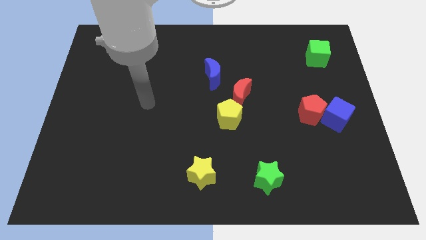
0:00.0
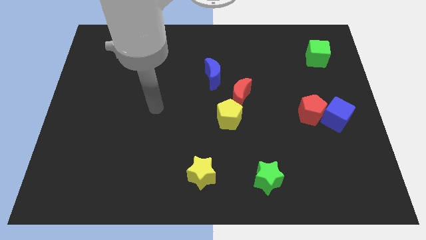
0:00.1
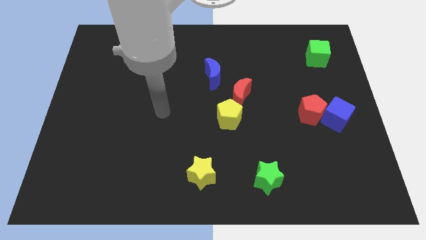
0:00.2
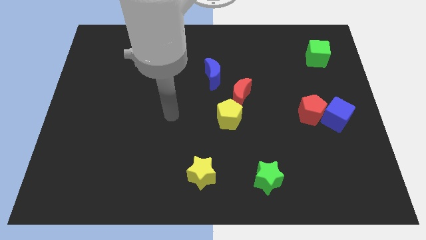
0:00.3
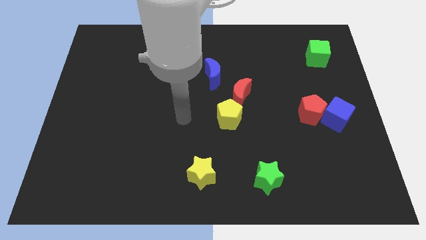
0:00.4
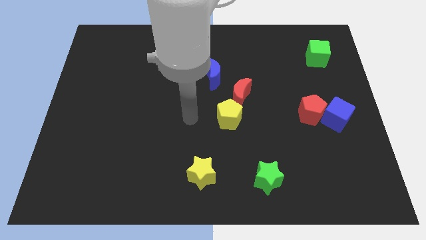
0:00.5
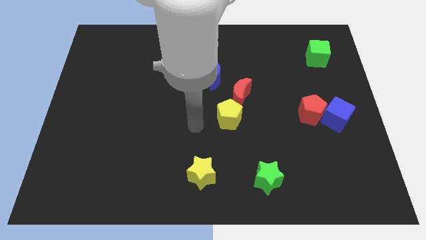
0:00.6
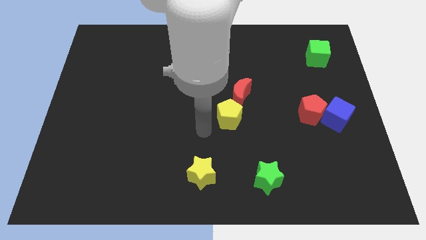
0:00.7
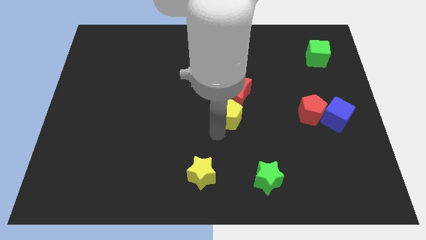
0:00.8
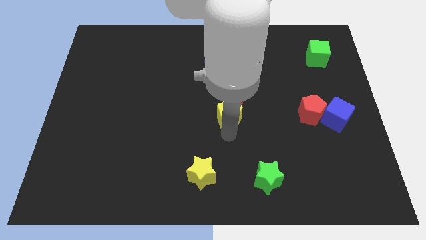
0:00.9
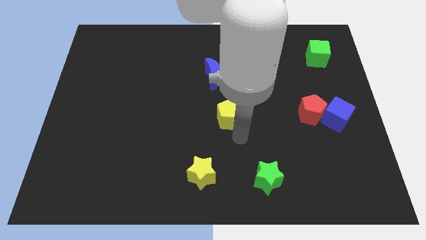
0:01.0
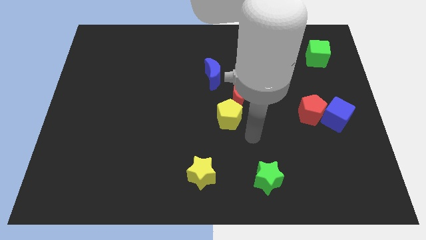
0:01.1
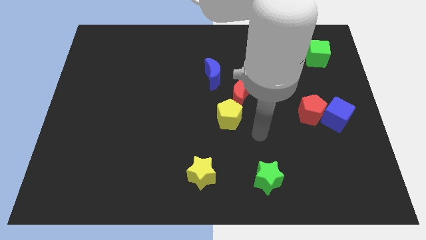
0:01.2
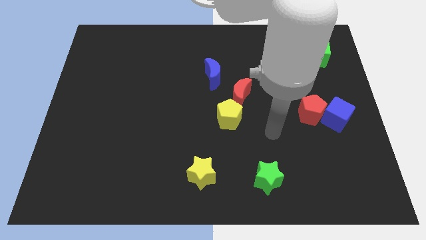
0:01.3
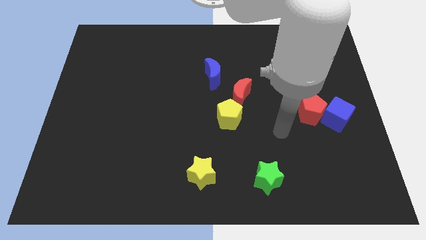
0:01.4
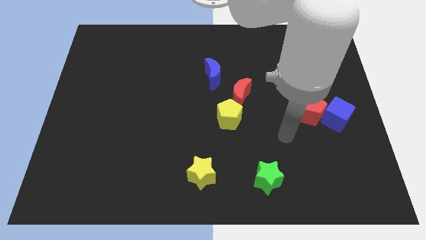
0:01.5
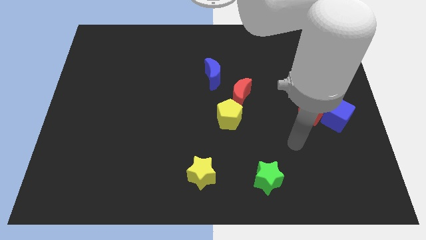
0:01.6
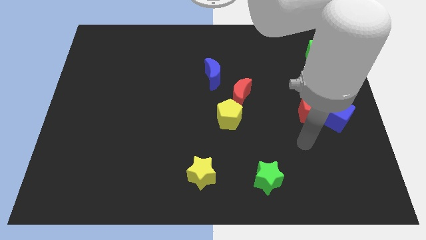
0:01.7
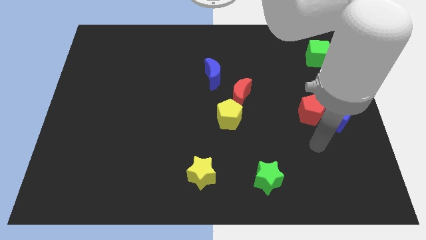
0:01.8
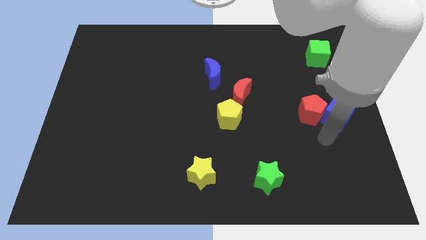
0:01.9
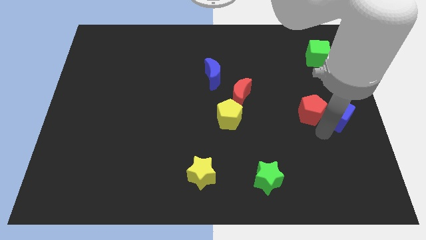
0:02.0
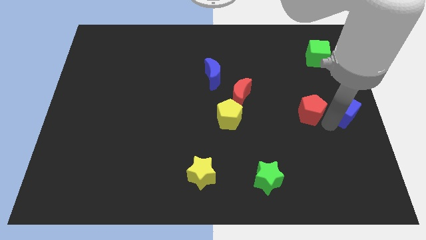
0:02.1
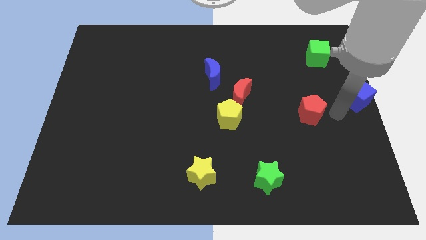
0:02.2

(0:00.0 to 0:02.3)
move the red pentagon away from the blue cube

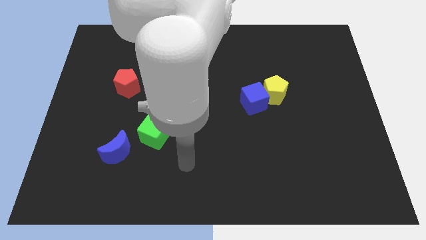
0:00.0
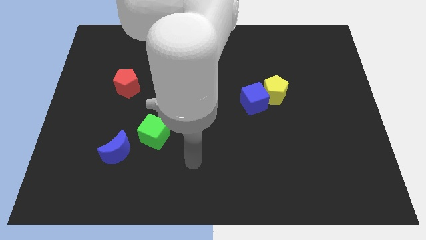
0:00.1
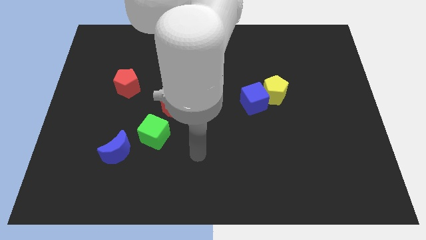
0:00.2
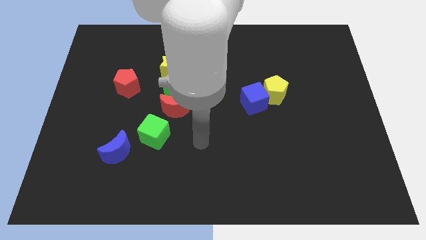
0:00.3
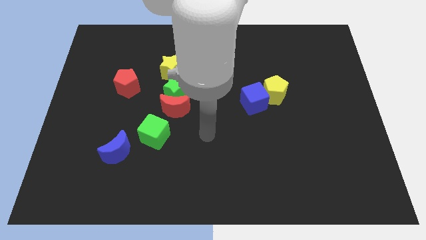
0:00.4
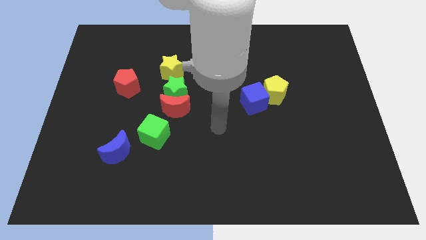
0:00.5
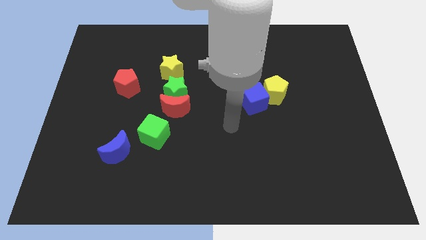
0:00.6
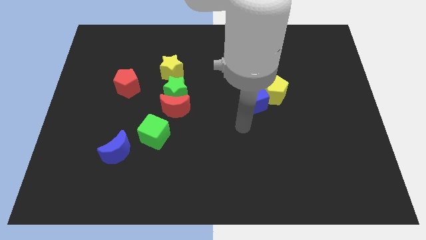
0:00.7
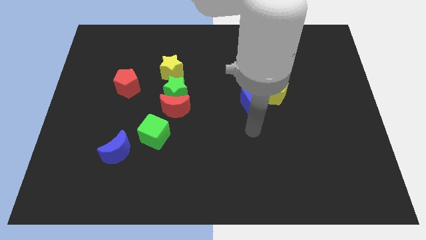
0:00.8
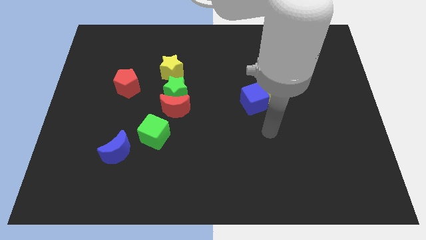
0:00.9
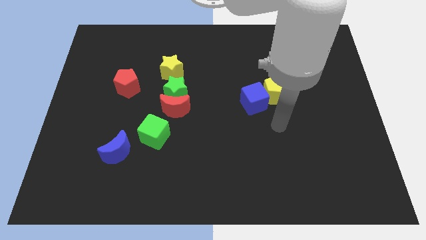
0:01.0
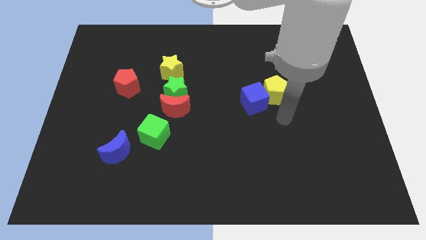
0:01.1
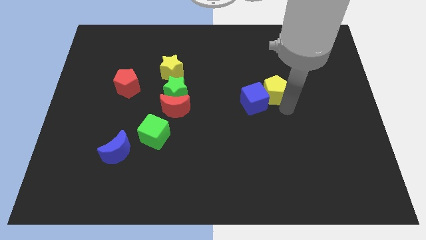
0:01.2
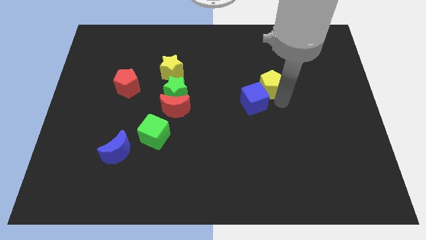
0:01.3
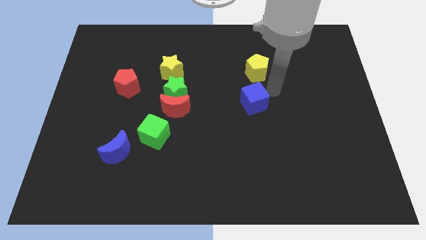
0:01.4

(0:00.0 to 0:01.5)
pull the blue cube apart from the yellow pentagon

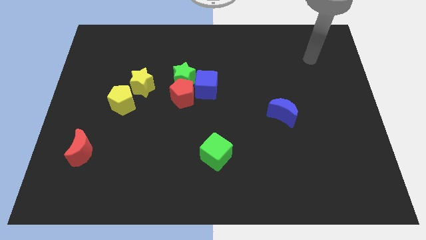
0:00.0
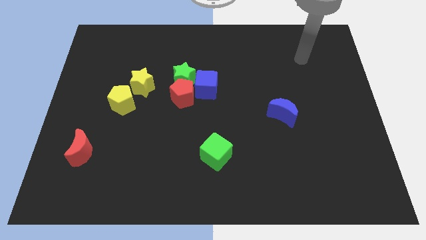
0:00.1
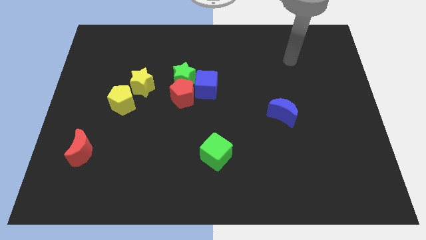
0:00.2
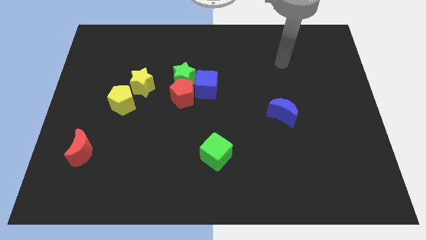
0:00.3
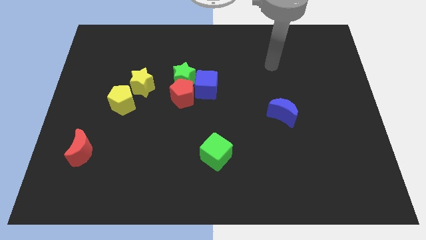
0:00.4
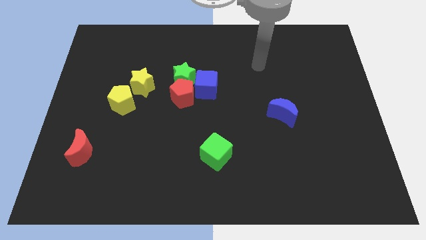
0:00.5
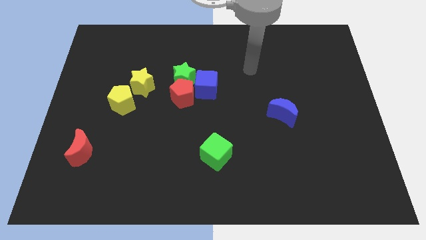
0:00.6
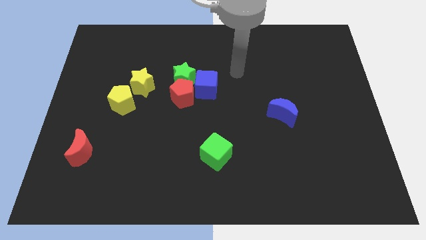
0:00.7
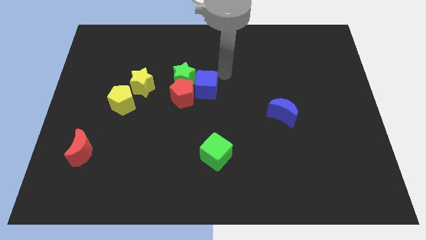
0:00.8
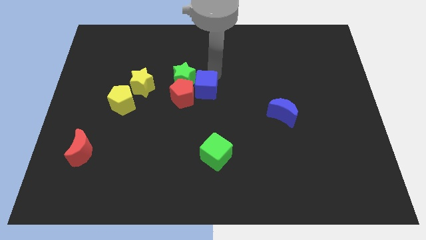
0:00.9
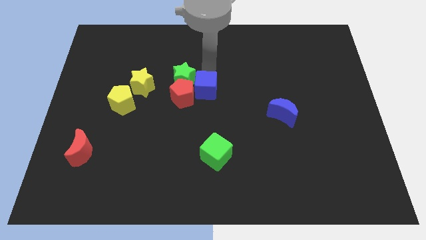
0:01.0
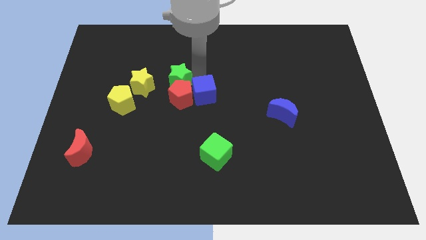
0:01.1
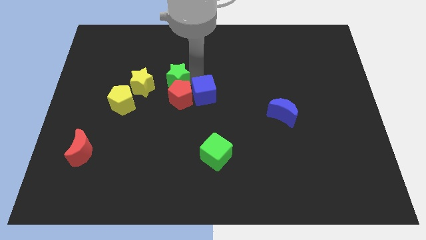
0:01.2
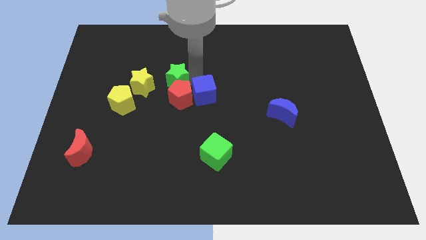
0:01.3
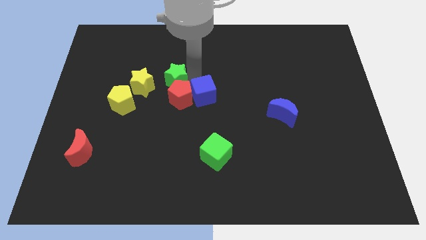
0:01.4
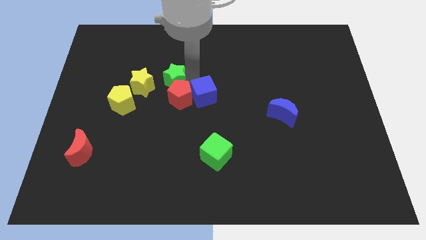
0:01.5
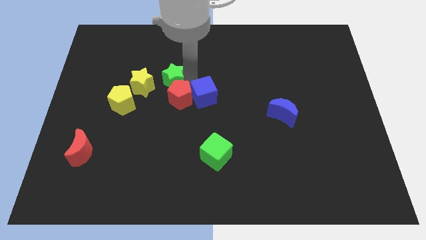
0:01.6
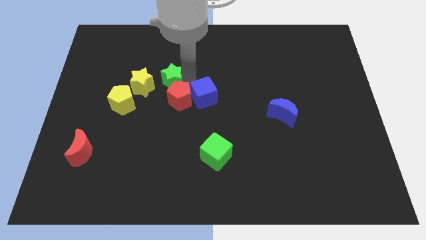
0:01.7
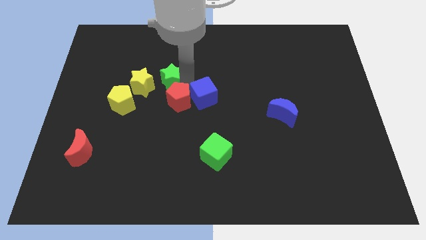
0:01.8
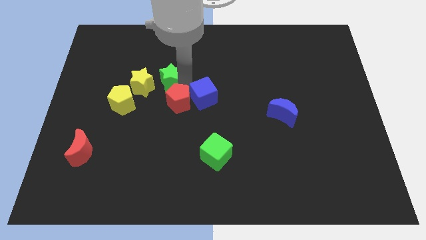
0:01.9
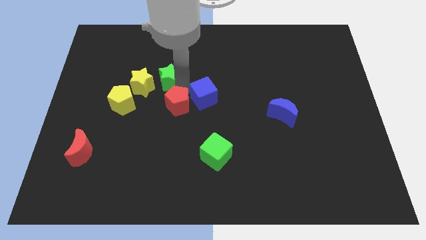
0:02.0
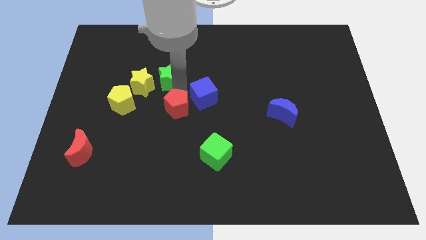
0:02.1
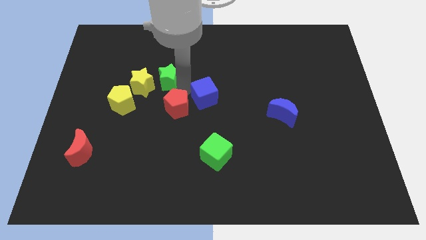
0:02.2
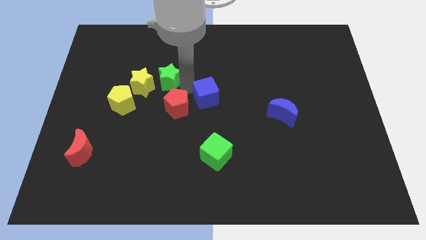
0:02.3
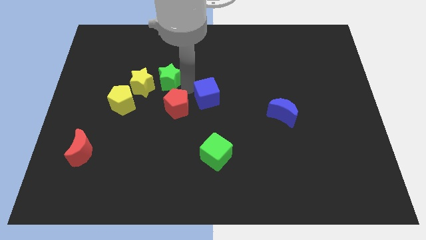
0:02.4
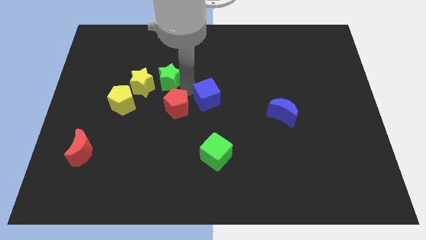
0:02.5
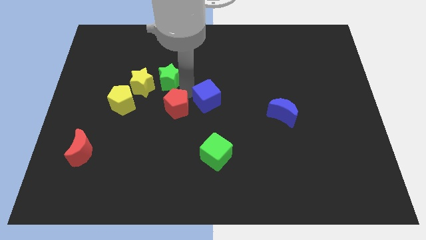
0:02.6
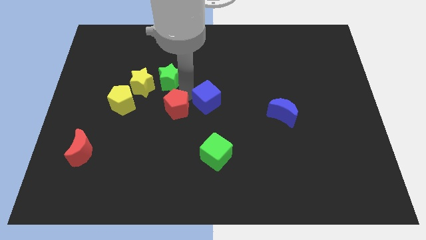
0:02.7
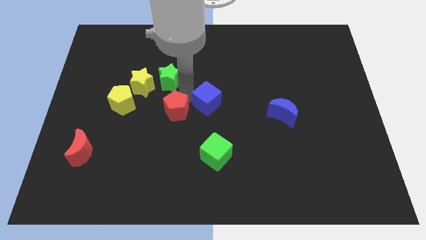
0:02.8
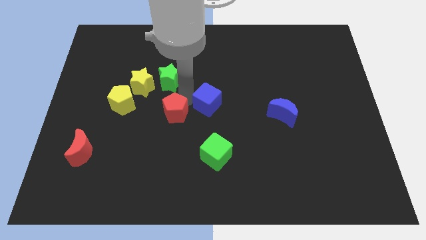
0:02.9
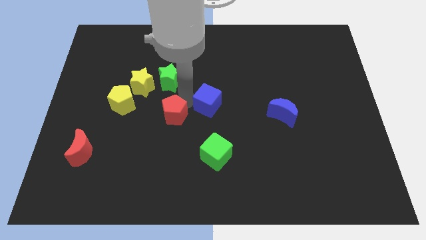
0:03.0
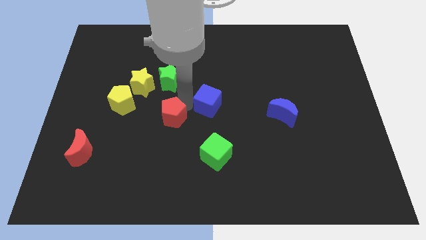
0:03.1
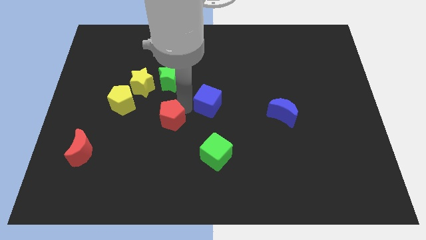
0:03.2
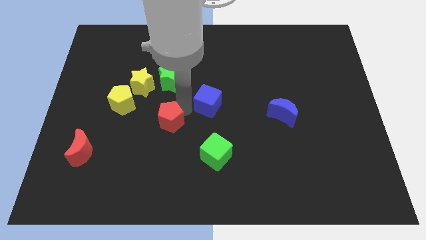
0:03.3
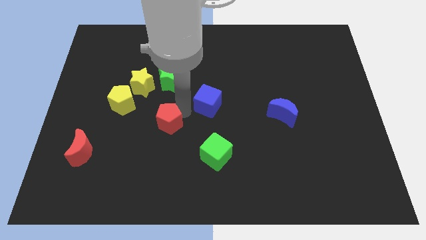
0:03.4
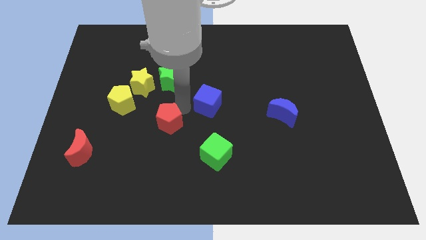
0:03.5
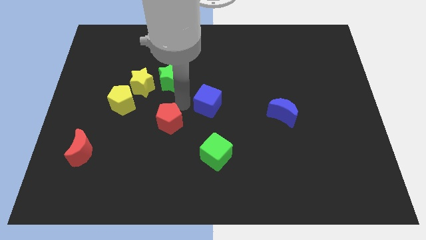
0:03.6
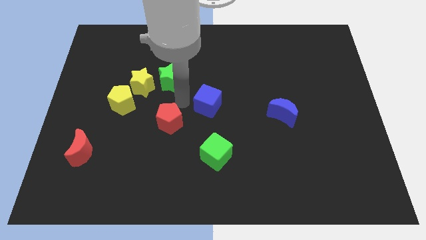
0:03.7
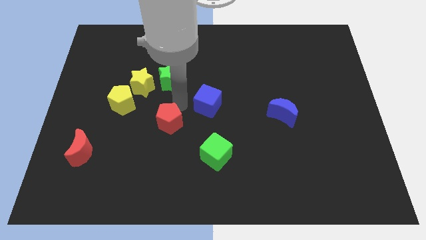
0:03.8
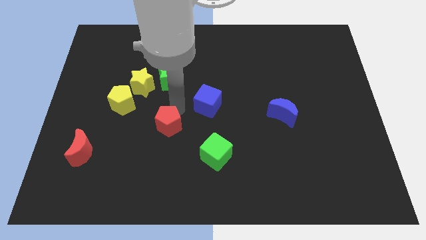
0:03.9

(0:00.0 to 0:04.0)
separate the red pentagon from the green star and blue cube

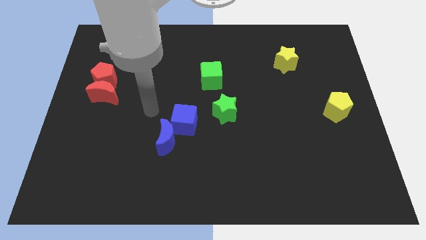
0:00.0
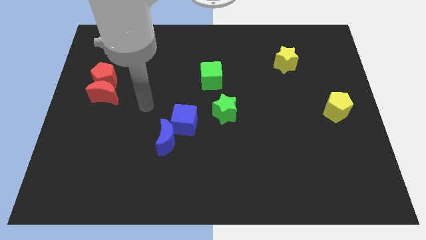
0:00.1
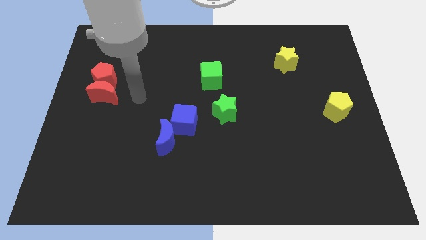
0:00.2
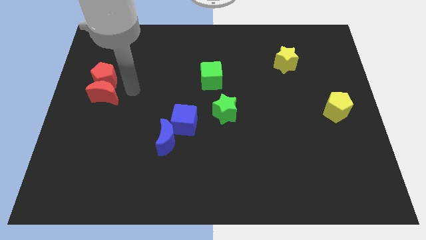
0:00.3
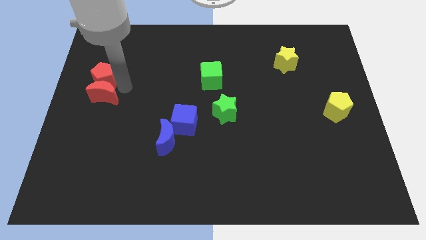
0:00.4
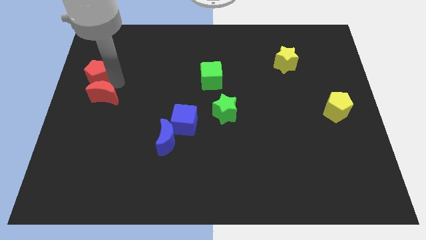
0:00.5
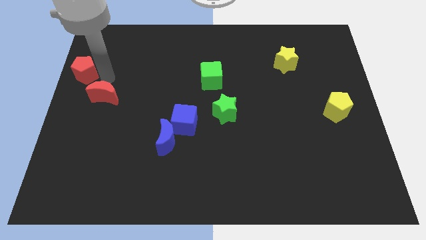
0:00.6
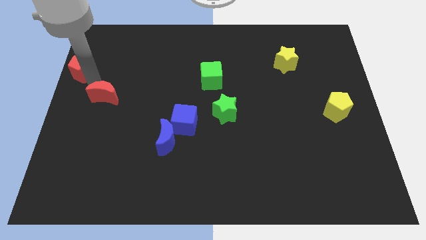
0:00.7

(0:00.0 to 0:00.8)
pull the red moon apart from the red pentagon

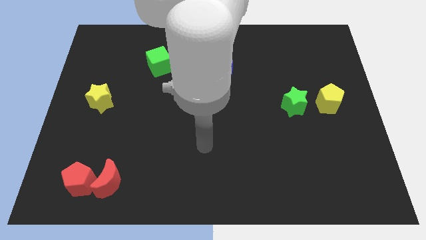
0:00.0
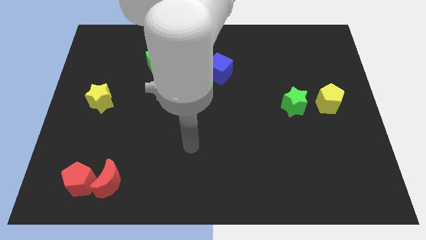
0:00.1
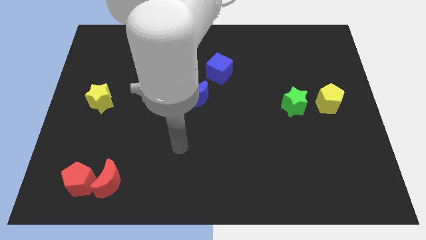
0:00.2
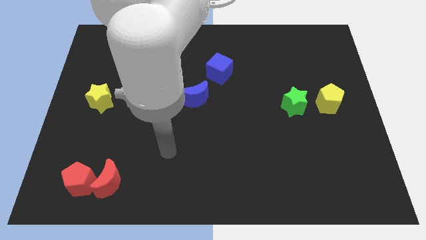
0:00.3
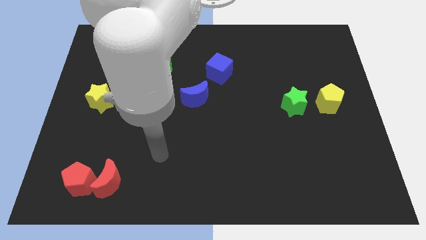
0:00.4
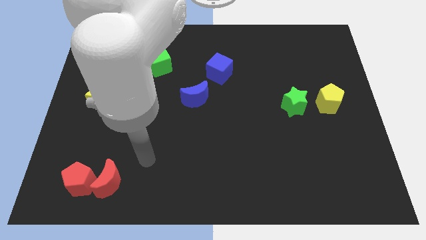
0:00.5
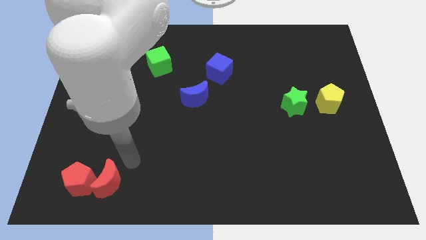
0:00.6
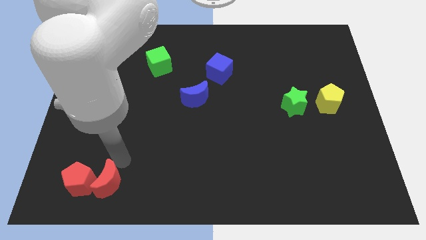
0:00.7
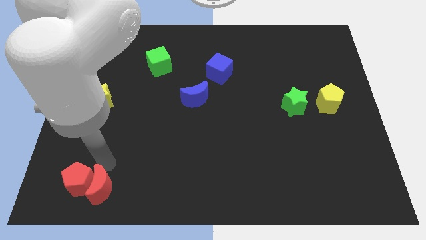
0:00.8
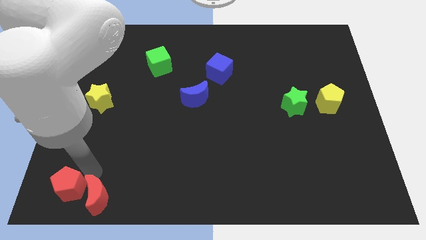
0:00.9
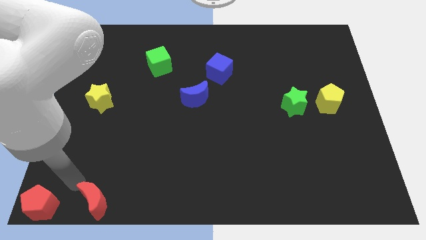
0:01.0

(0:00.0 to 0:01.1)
separate the red moon from the red pentagon
